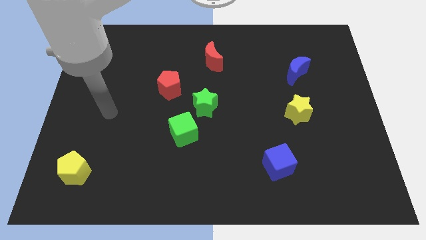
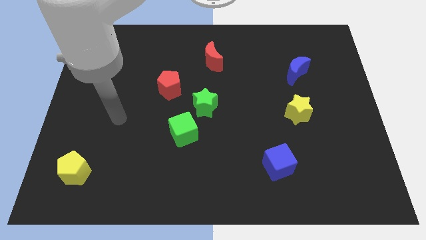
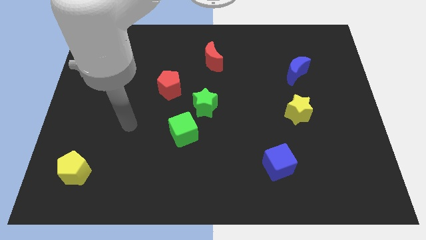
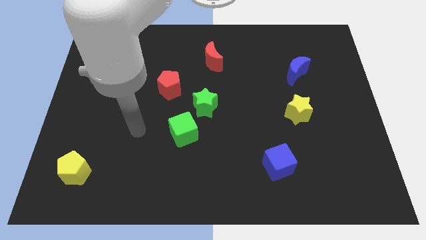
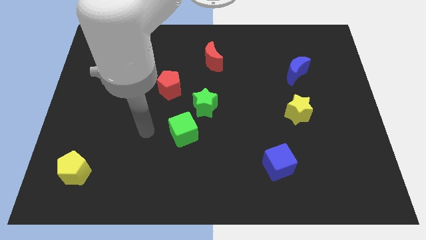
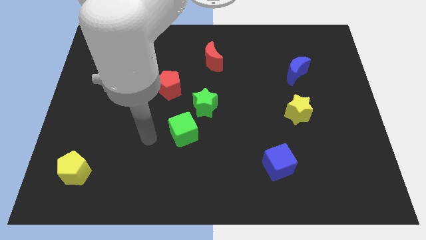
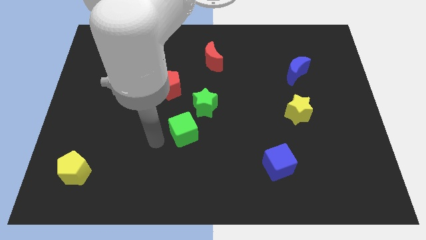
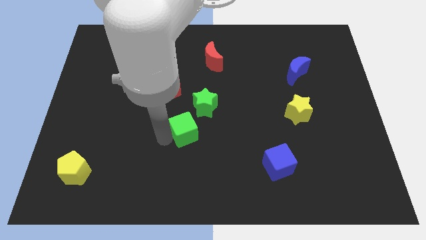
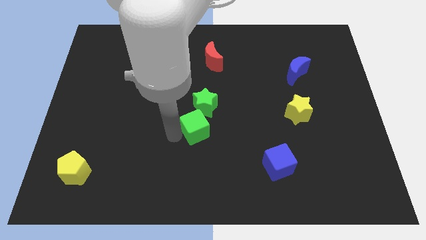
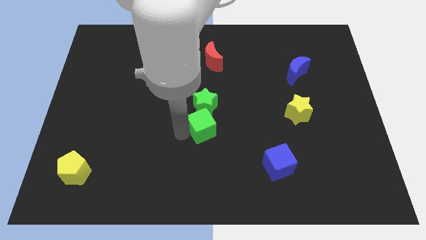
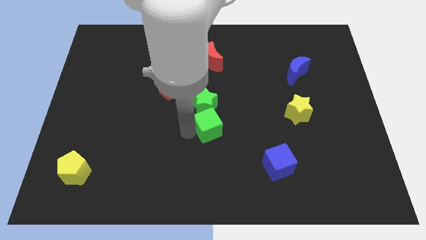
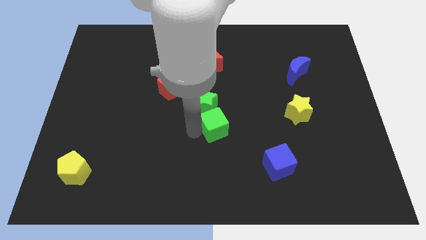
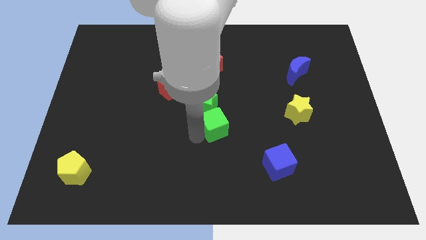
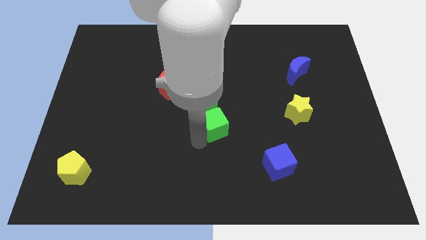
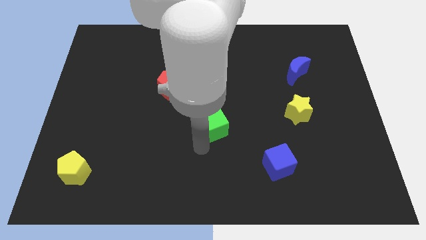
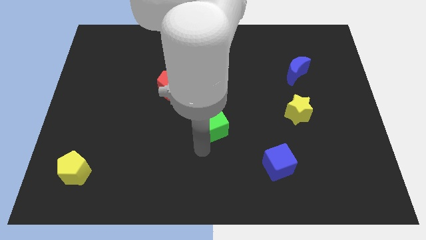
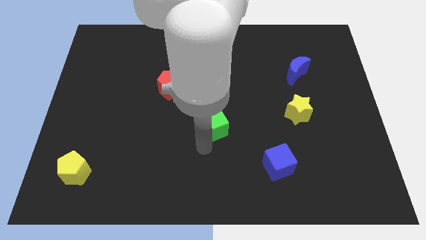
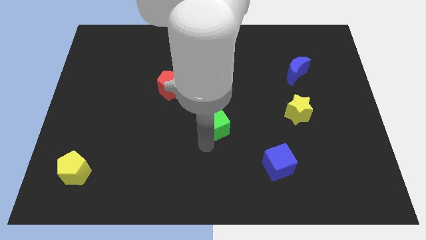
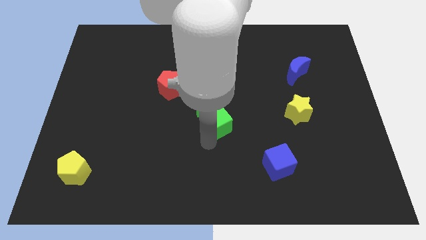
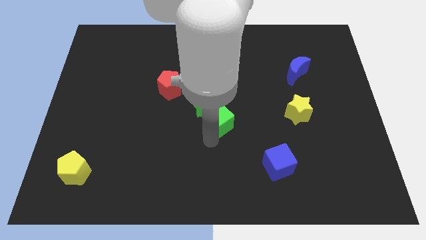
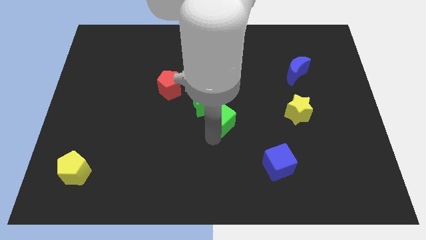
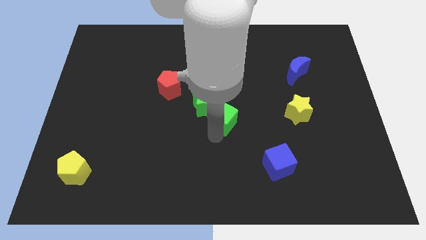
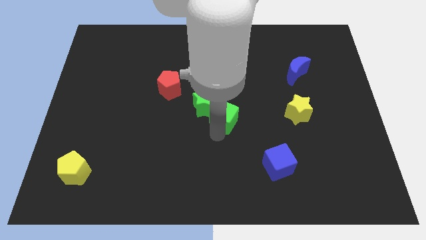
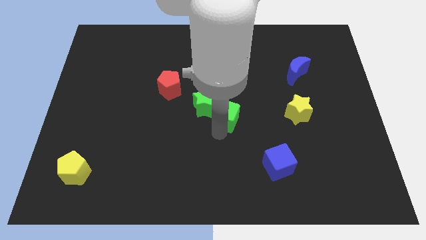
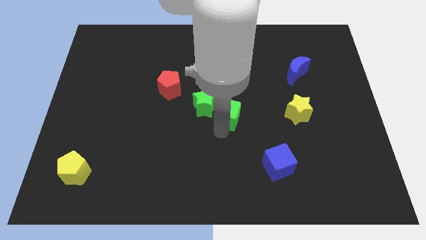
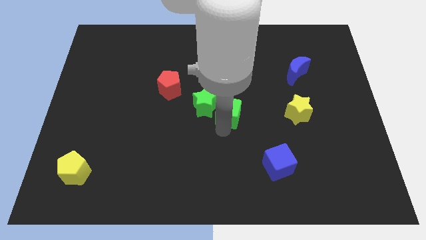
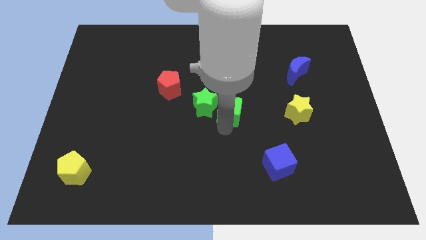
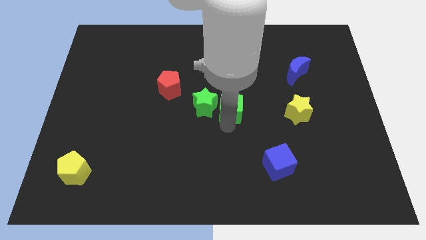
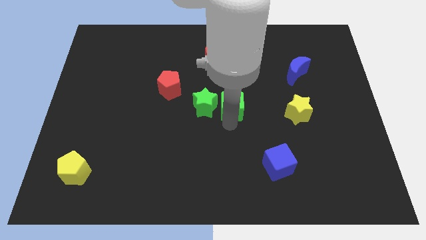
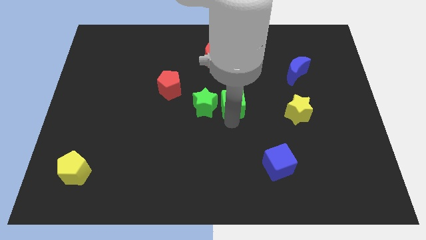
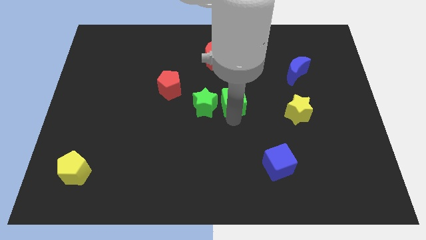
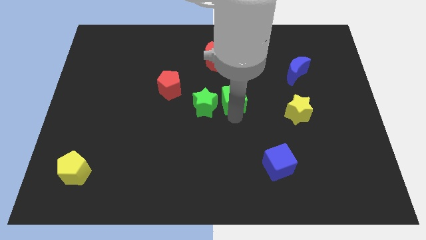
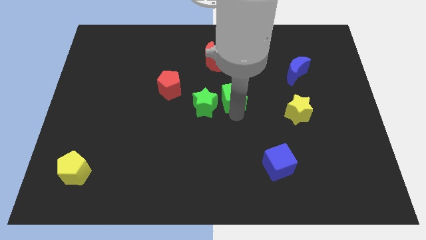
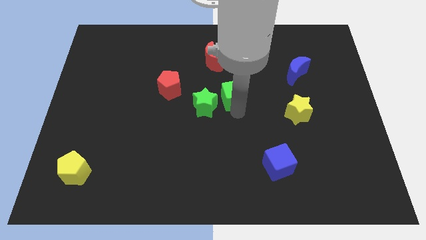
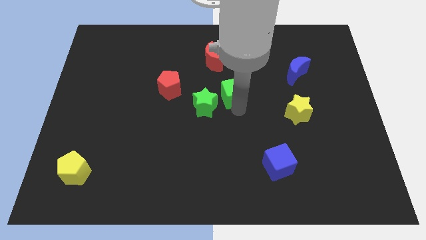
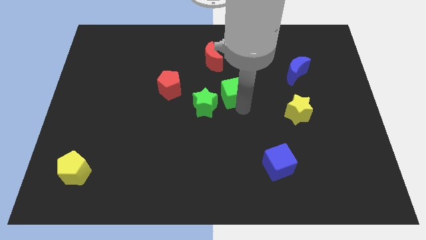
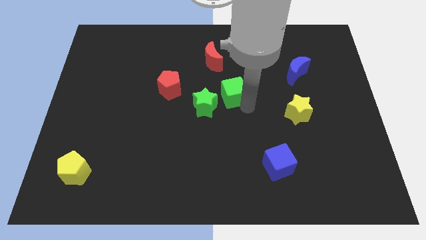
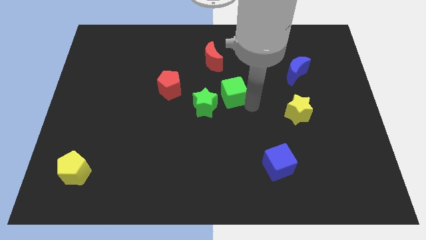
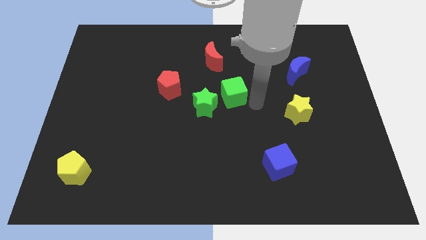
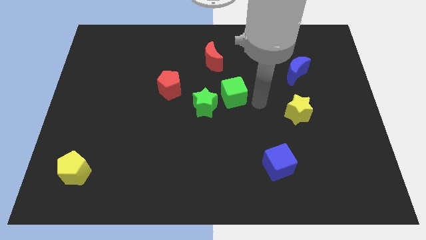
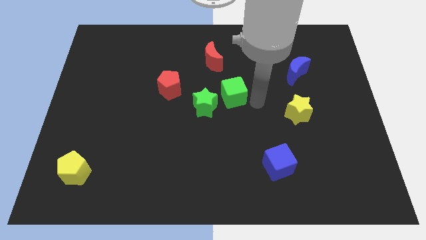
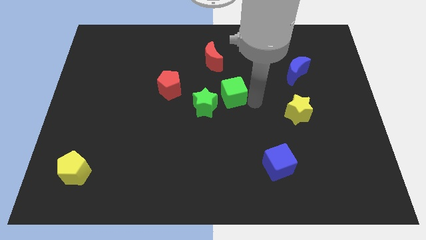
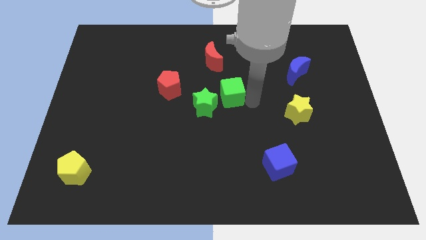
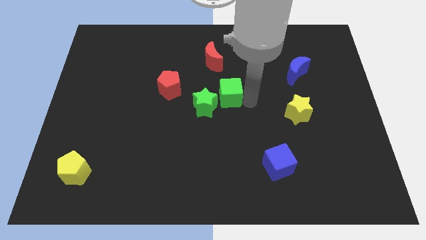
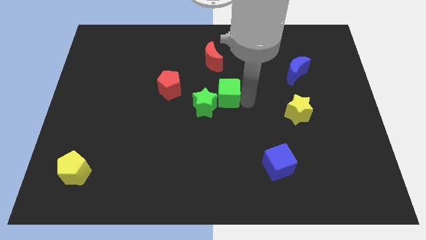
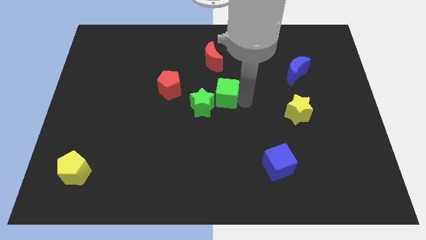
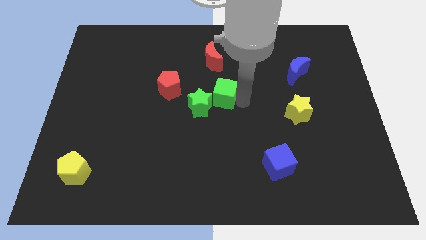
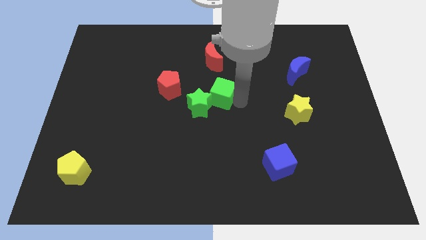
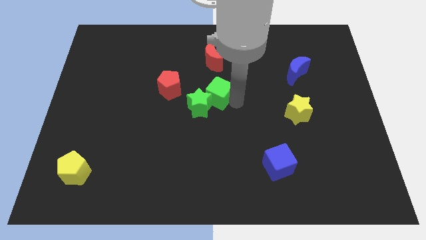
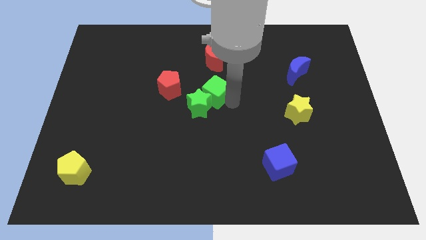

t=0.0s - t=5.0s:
move the green cube to the top side of the green star

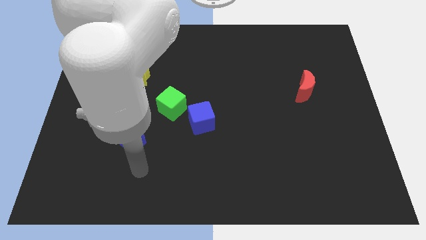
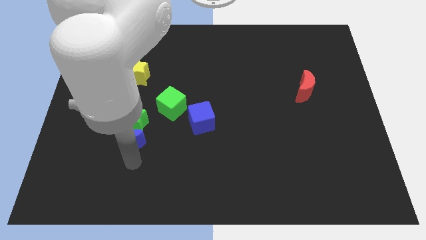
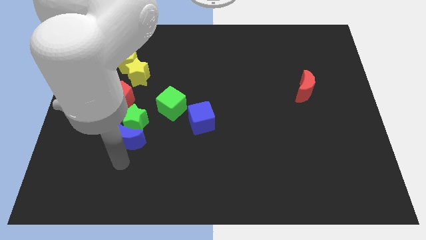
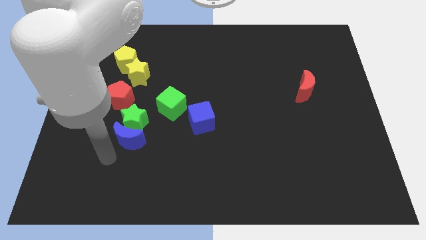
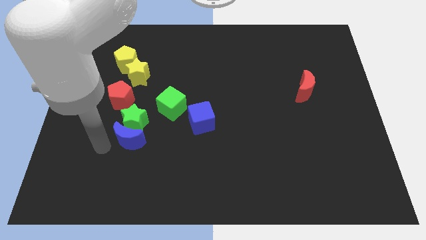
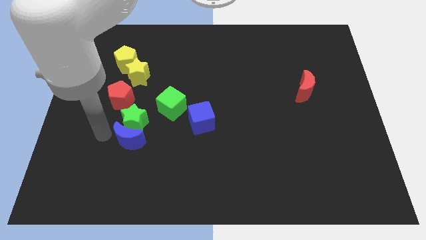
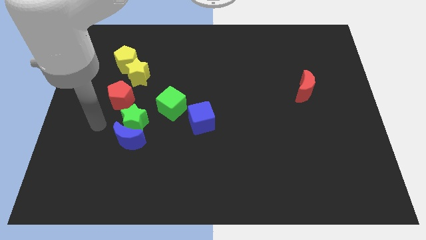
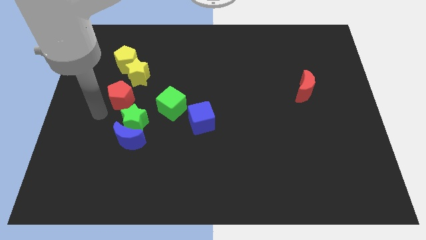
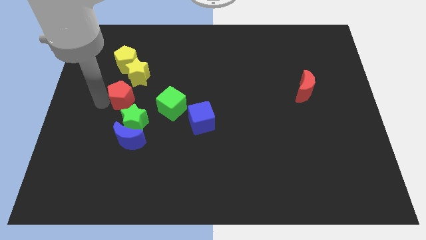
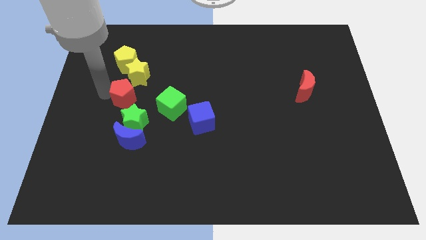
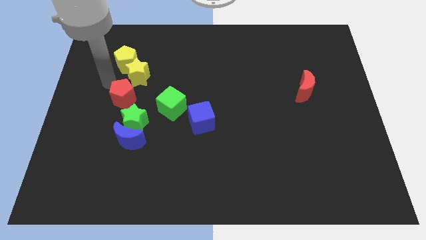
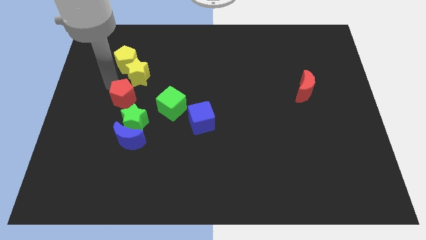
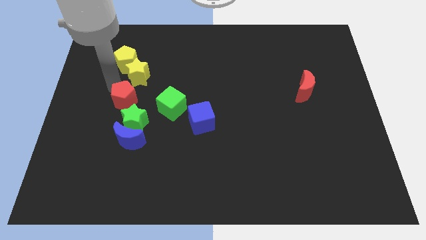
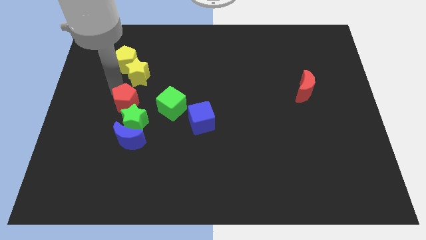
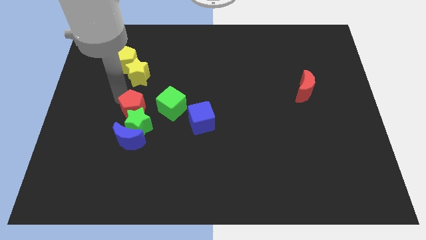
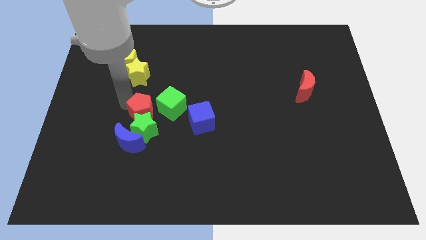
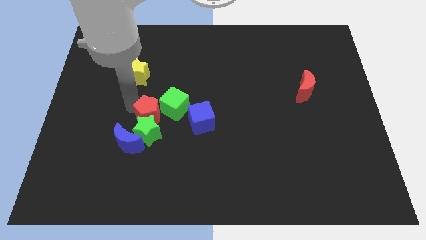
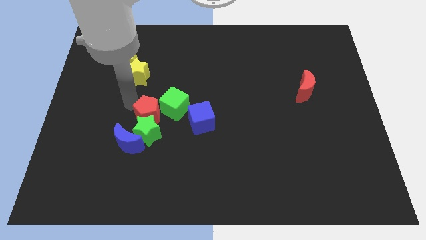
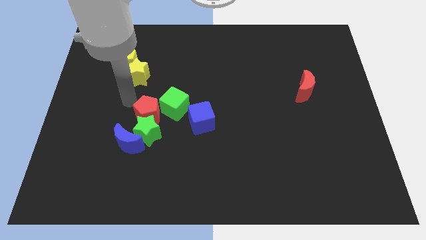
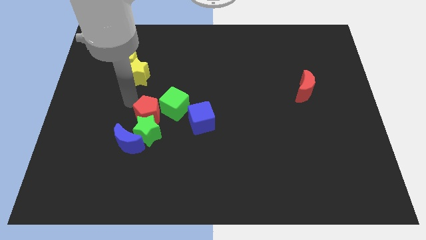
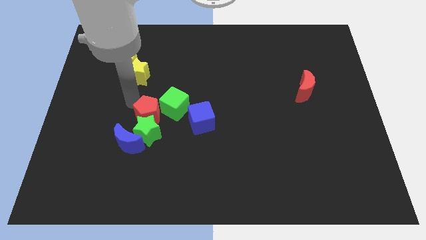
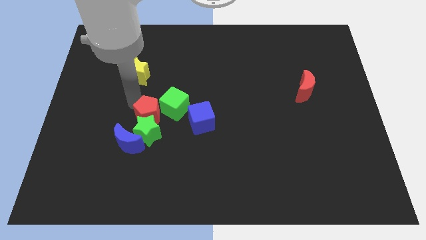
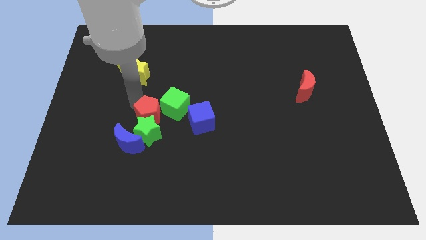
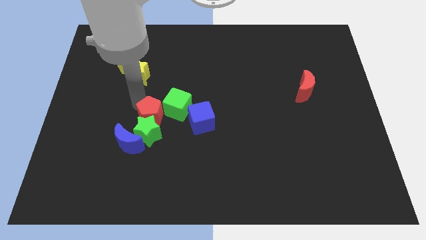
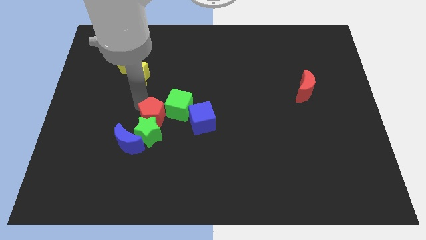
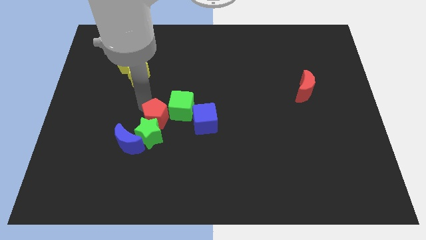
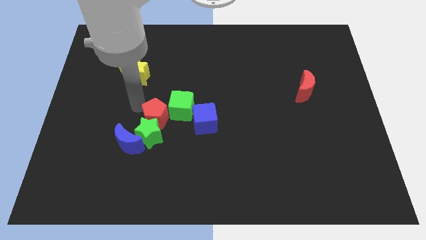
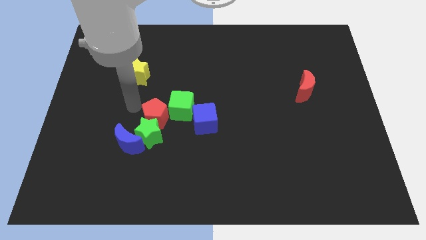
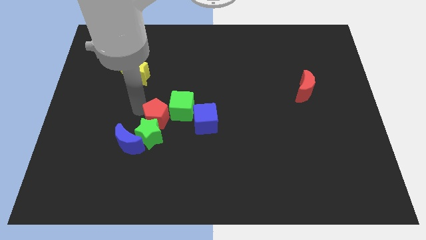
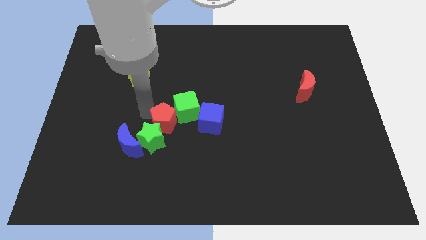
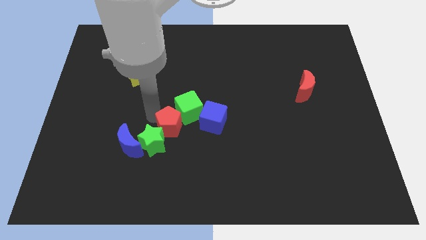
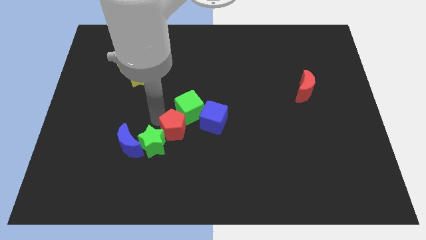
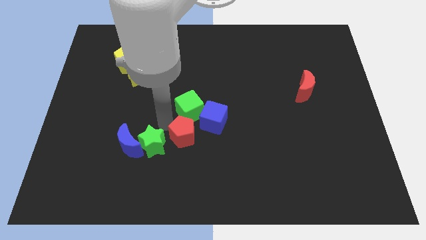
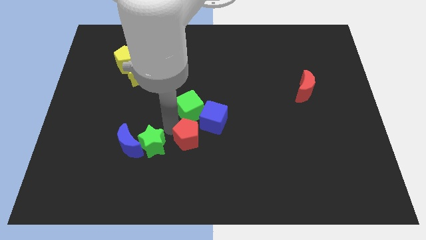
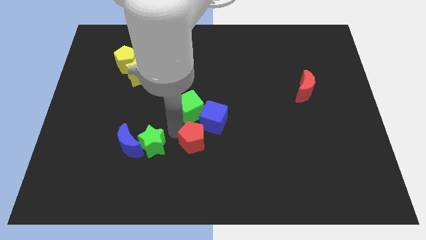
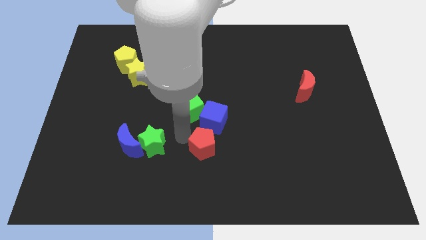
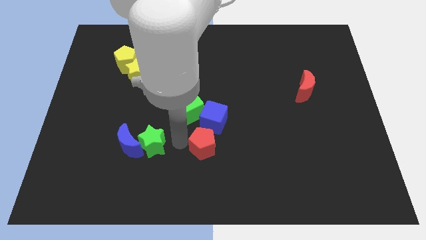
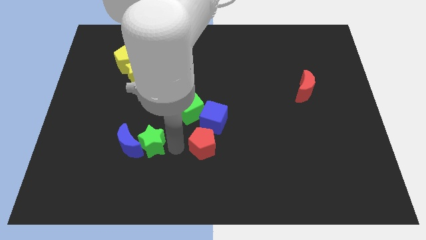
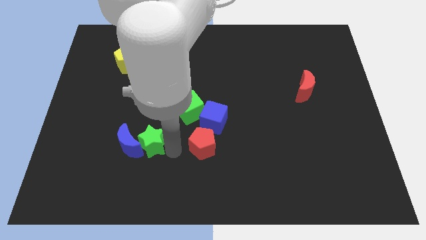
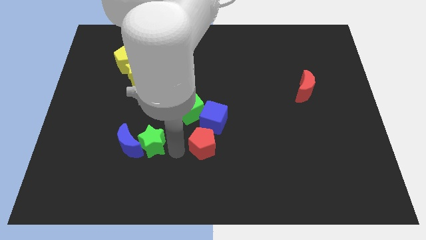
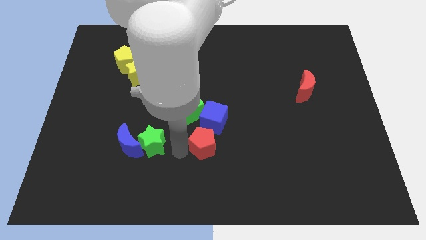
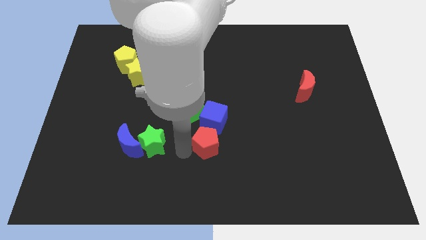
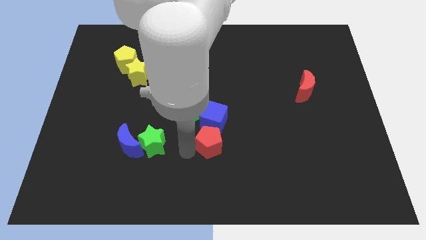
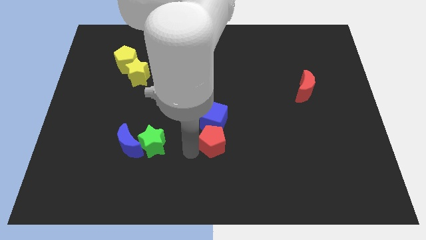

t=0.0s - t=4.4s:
move the red pentagon to the bottom right side of the blue cube
